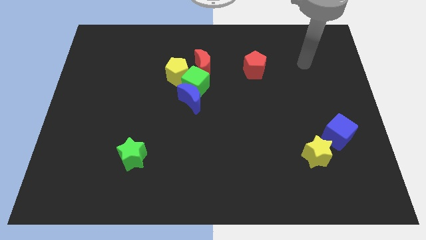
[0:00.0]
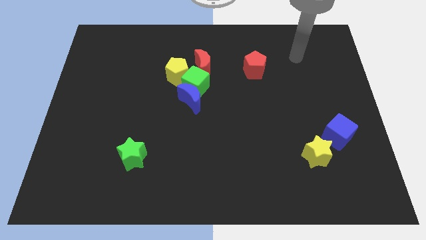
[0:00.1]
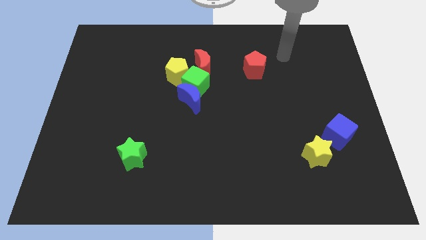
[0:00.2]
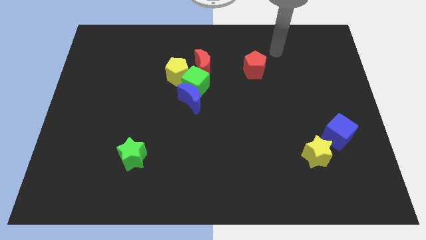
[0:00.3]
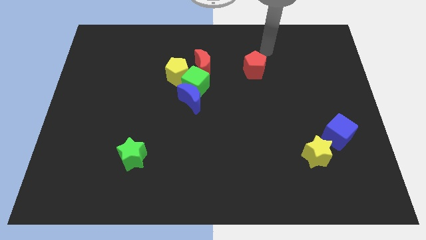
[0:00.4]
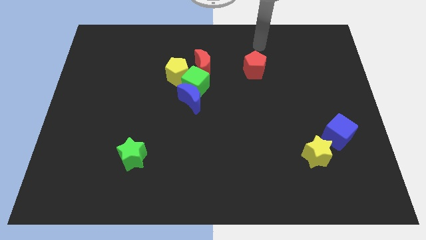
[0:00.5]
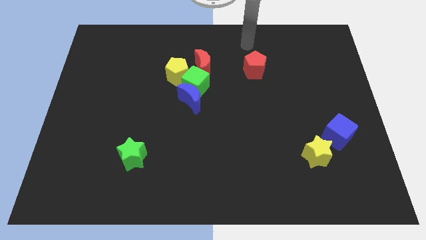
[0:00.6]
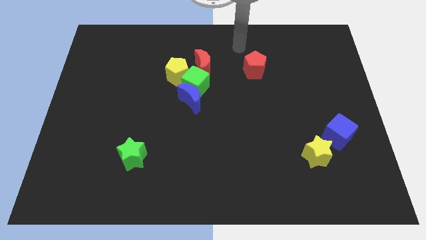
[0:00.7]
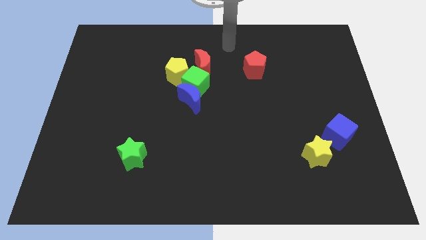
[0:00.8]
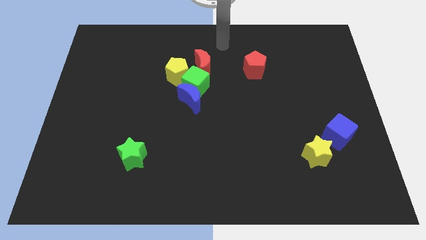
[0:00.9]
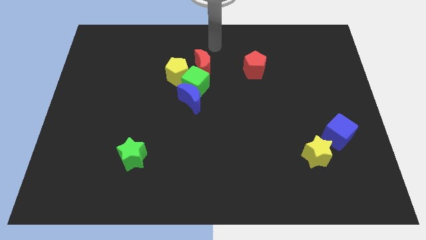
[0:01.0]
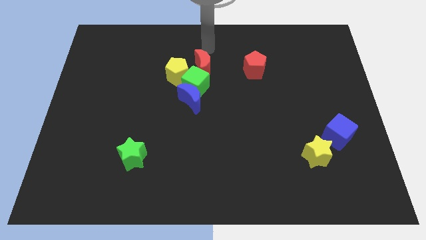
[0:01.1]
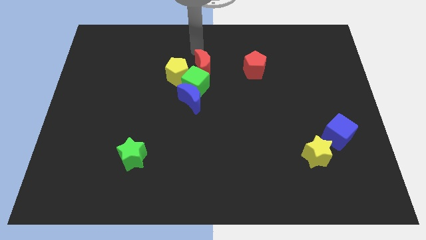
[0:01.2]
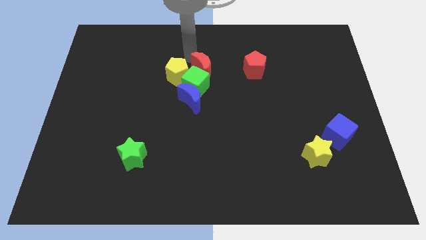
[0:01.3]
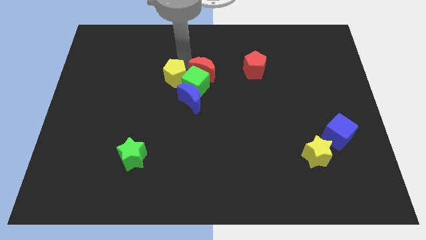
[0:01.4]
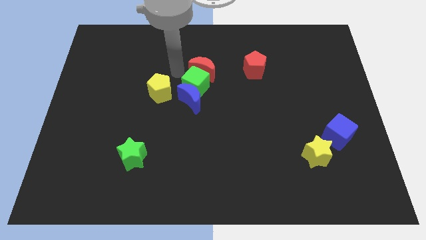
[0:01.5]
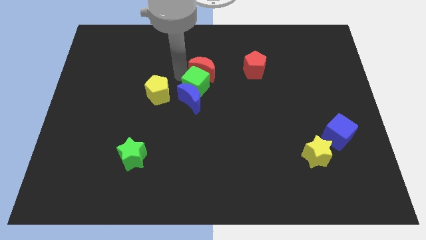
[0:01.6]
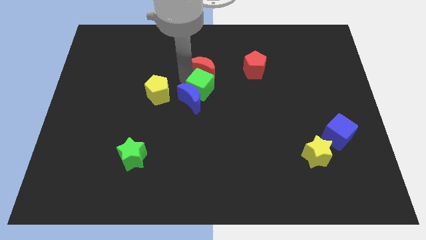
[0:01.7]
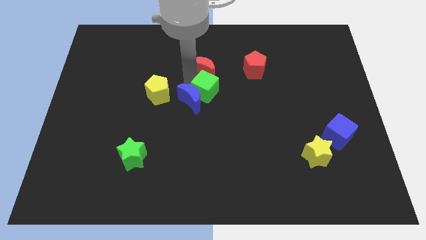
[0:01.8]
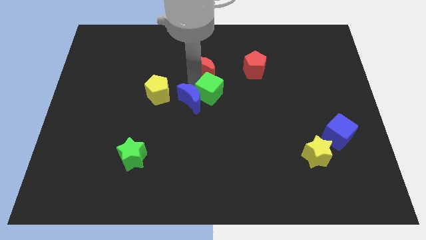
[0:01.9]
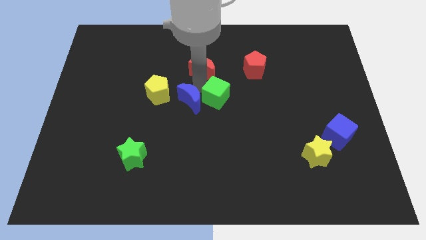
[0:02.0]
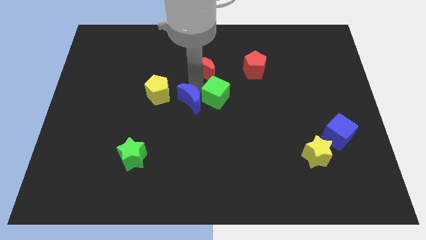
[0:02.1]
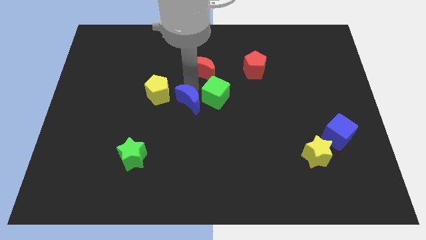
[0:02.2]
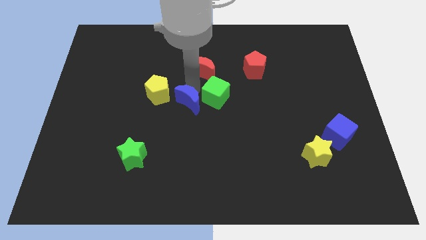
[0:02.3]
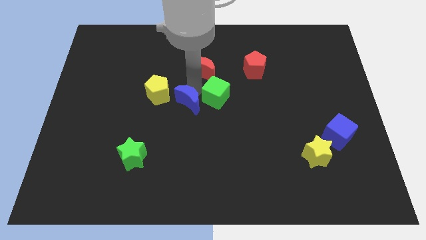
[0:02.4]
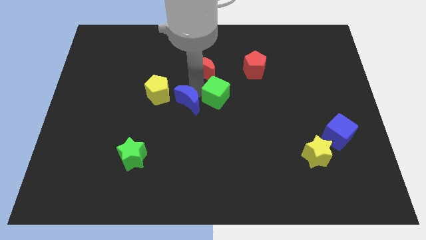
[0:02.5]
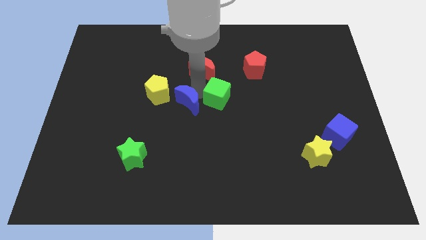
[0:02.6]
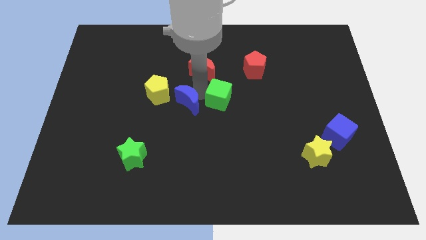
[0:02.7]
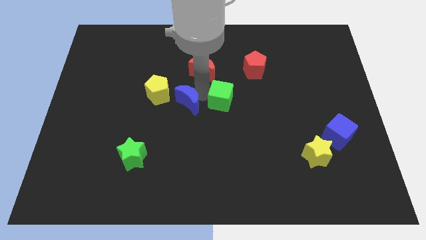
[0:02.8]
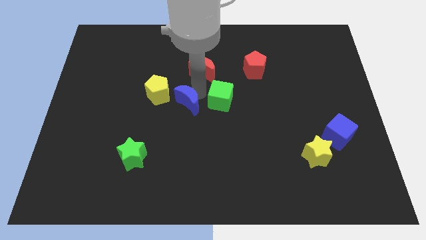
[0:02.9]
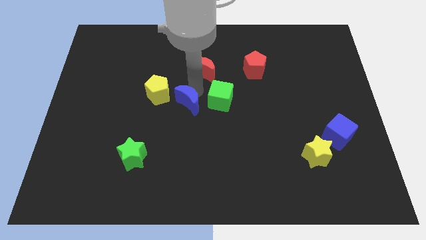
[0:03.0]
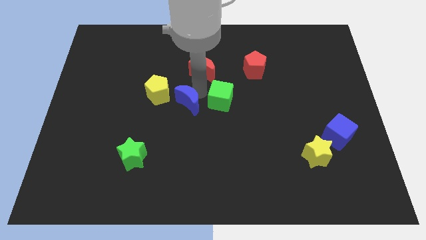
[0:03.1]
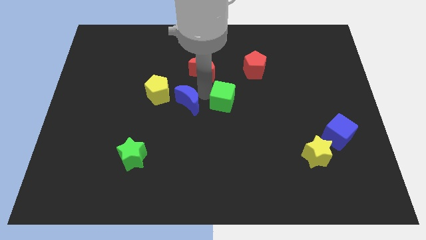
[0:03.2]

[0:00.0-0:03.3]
move the green cube away from the clump

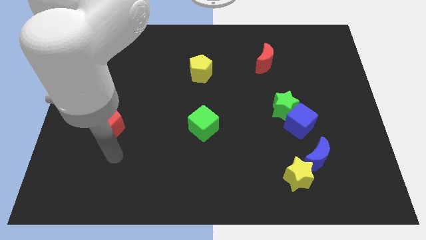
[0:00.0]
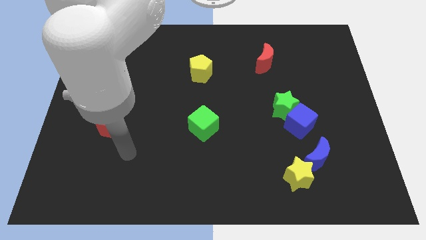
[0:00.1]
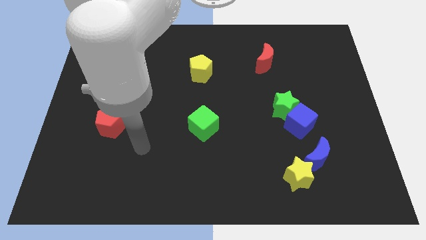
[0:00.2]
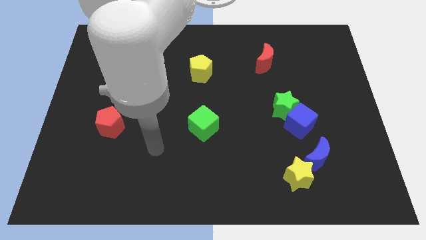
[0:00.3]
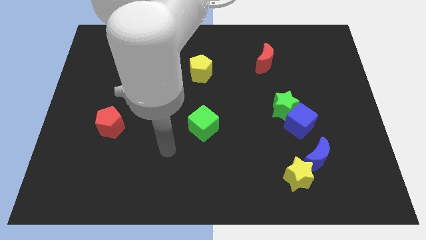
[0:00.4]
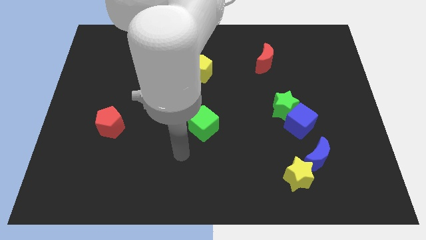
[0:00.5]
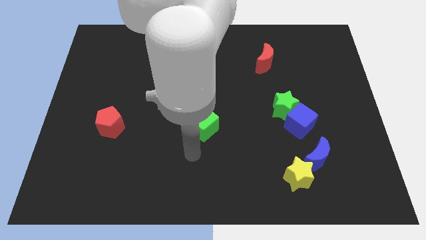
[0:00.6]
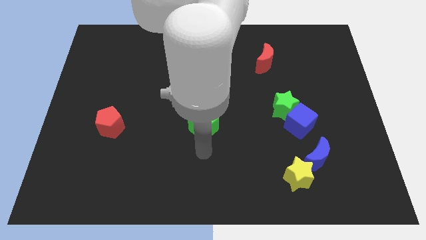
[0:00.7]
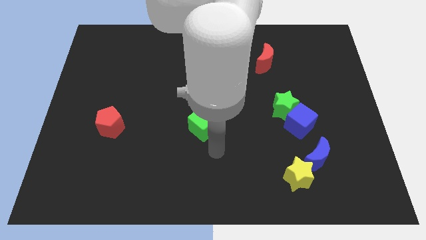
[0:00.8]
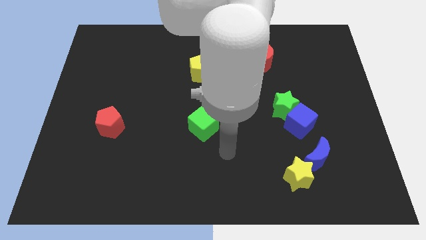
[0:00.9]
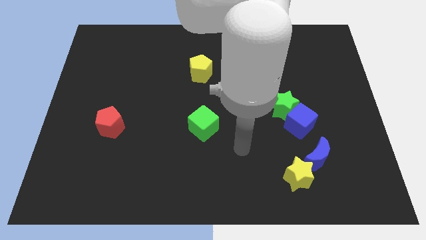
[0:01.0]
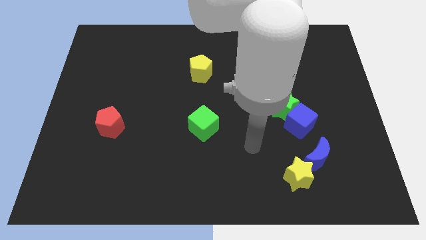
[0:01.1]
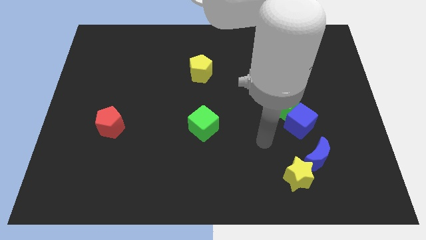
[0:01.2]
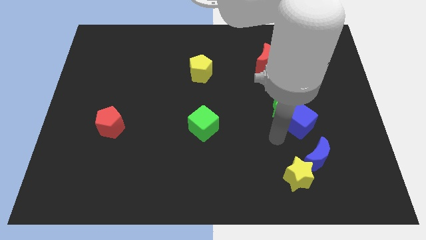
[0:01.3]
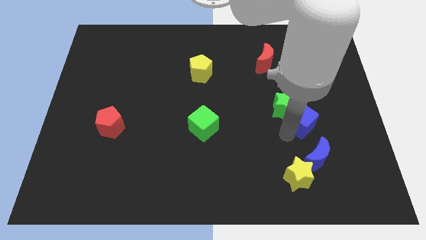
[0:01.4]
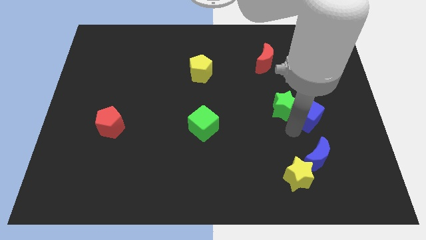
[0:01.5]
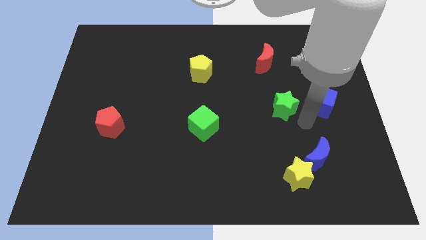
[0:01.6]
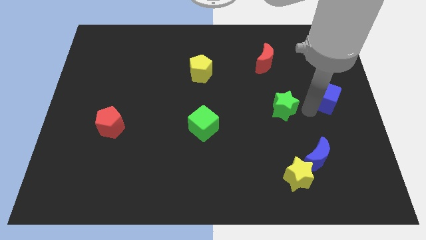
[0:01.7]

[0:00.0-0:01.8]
separate the green star from the blue cube

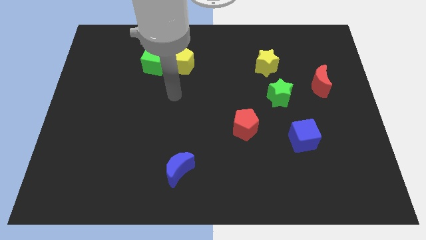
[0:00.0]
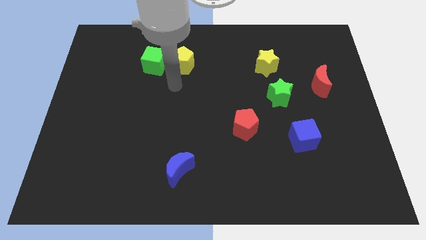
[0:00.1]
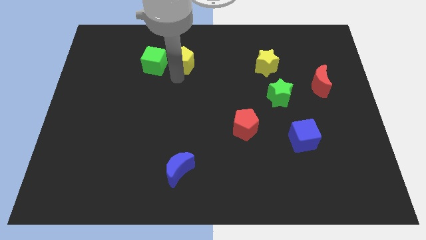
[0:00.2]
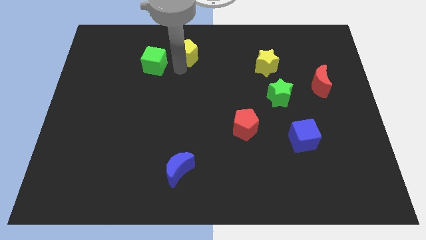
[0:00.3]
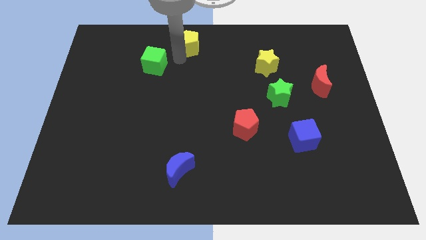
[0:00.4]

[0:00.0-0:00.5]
pull the green cube apart from the yellow pentagon

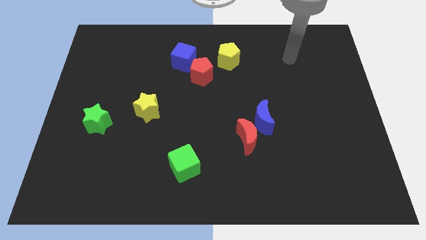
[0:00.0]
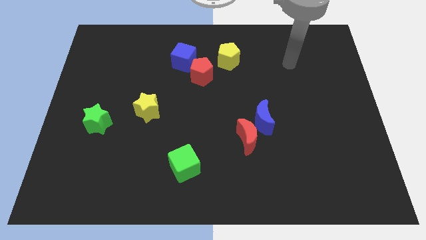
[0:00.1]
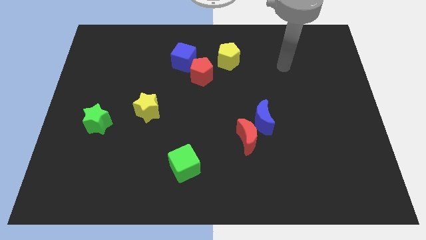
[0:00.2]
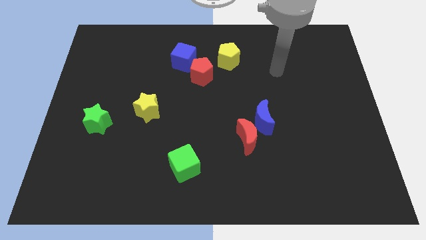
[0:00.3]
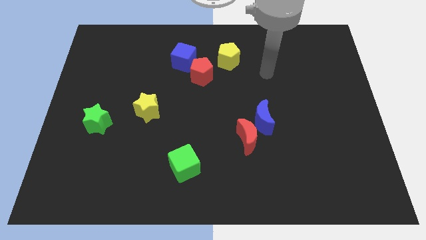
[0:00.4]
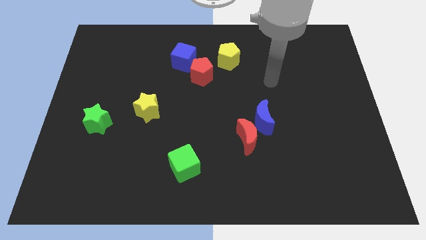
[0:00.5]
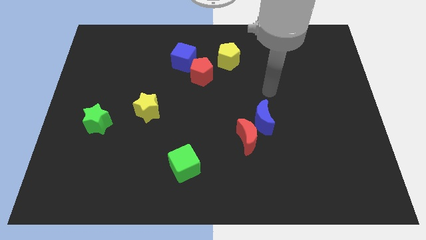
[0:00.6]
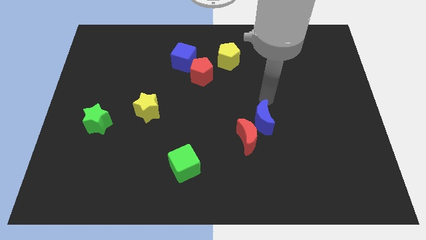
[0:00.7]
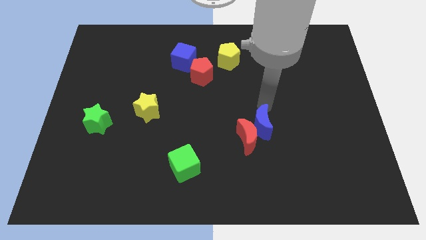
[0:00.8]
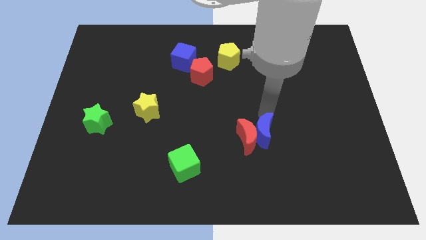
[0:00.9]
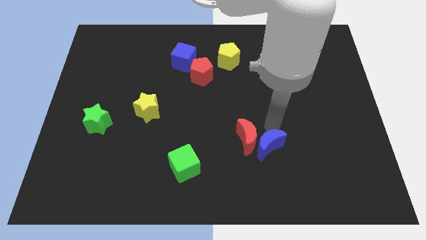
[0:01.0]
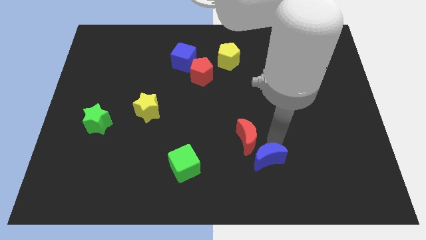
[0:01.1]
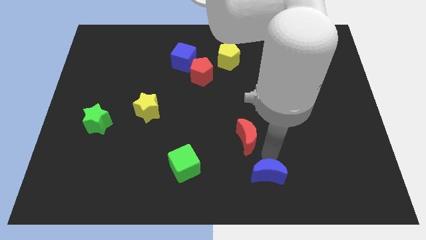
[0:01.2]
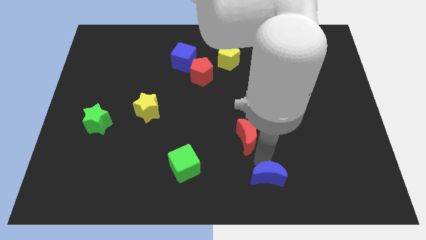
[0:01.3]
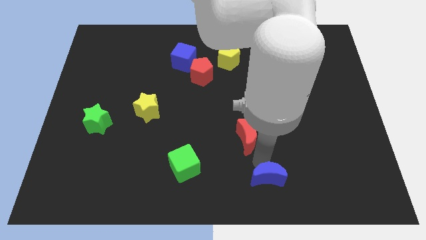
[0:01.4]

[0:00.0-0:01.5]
pull the red moon apart from the blue moon

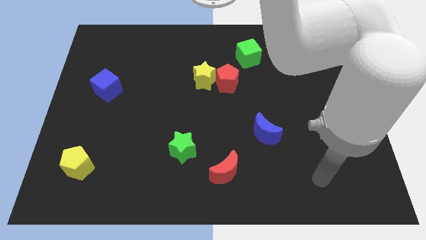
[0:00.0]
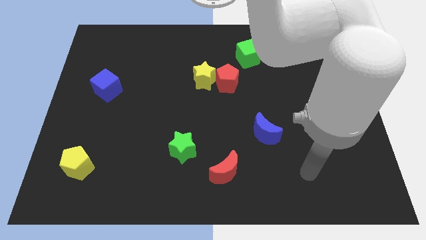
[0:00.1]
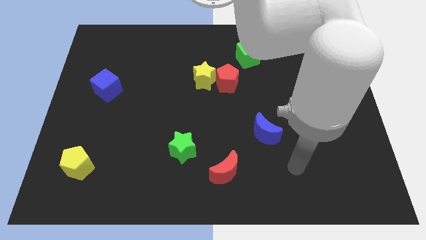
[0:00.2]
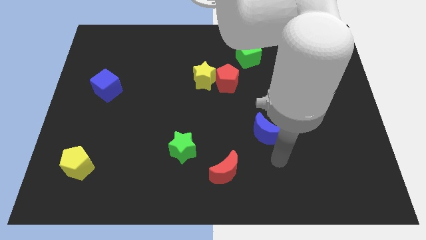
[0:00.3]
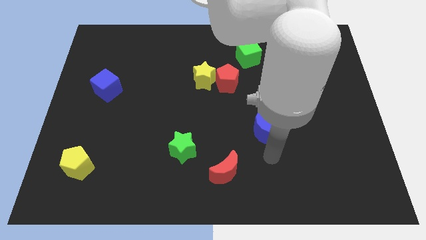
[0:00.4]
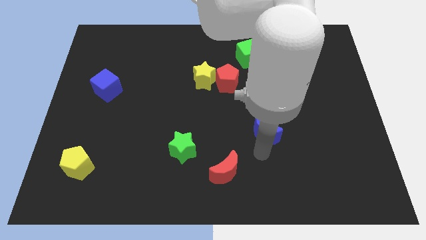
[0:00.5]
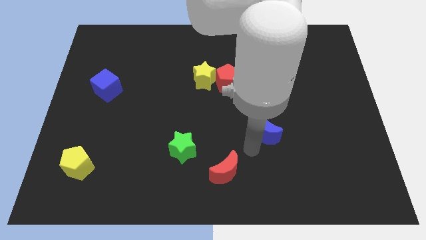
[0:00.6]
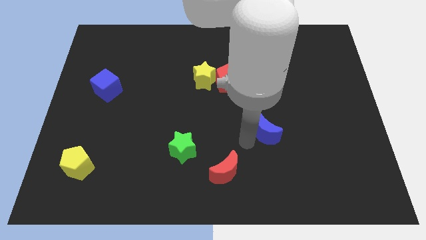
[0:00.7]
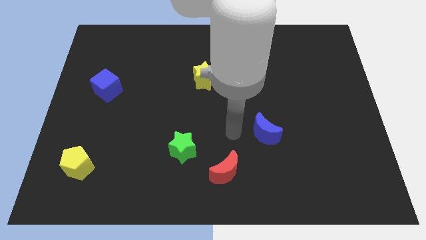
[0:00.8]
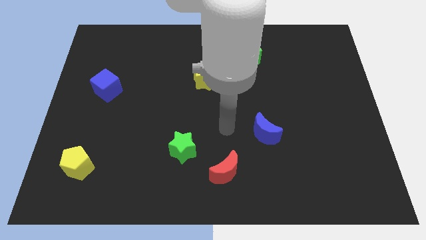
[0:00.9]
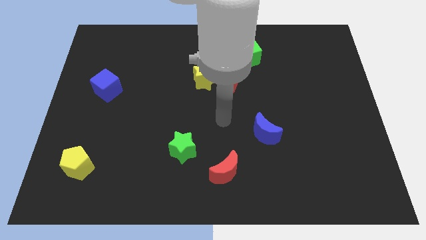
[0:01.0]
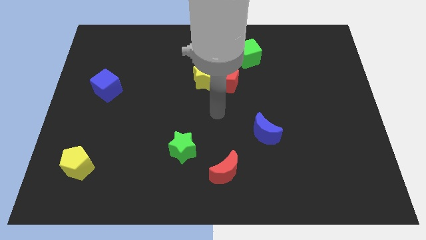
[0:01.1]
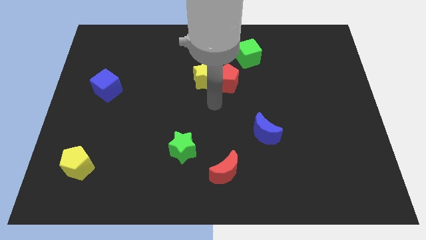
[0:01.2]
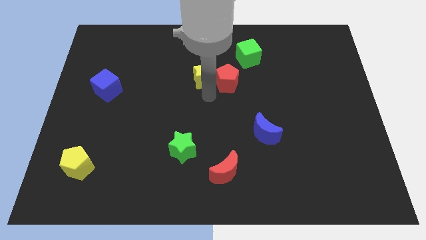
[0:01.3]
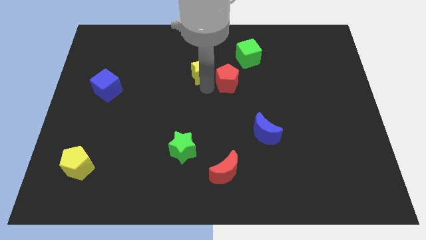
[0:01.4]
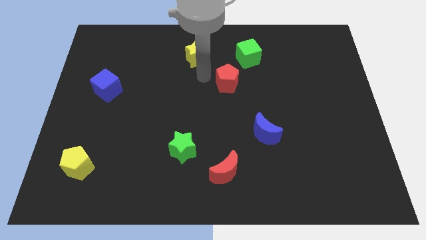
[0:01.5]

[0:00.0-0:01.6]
pull the red pentagon apart from the yellow star

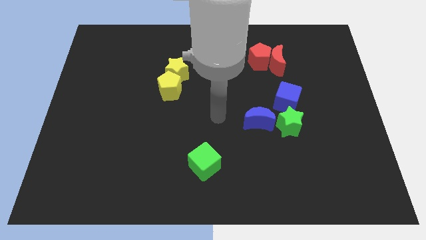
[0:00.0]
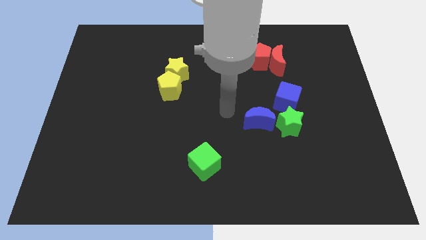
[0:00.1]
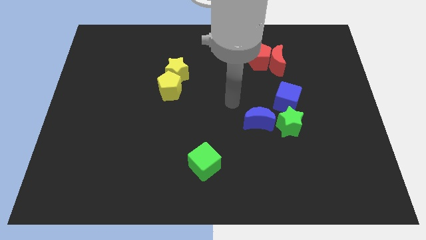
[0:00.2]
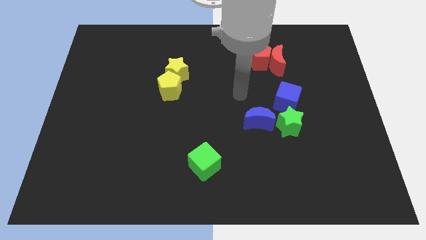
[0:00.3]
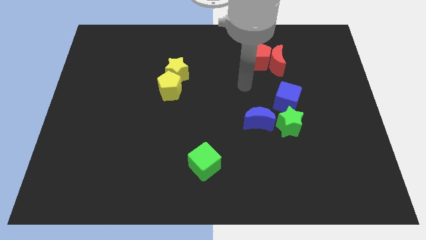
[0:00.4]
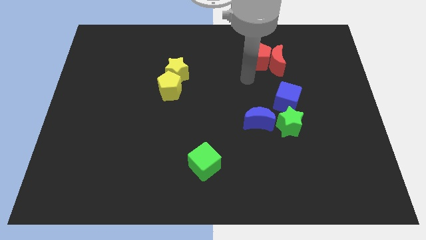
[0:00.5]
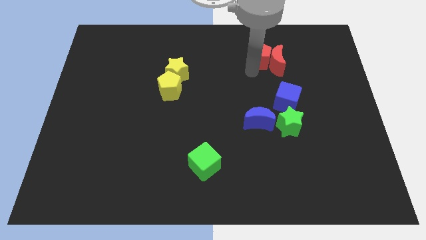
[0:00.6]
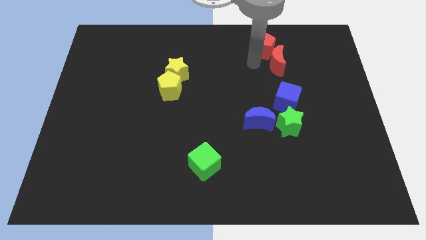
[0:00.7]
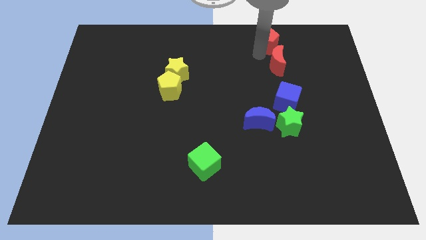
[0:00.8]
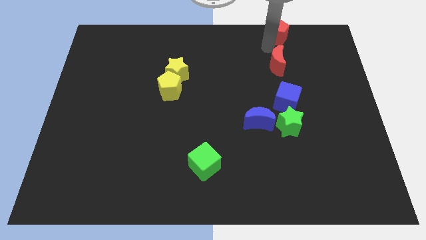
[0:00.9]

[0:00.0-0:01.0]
move the red moon away from the red pentagon
